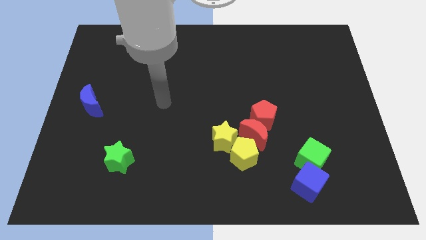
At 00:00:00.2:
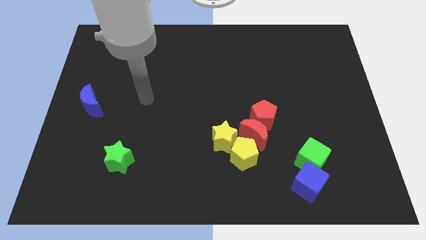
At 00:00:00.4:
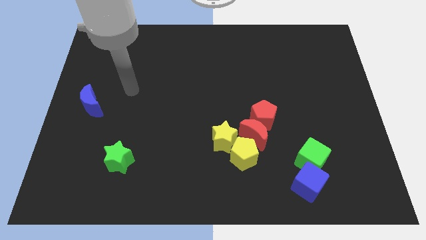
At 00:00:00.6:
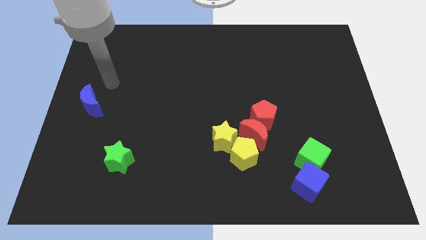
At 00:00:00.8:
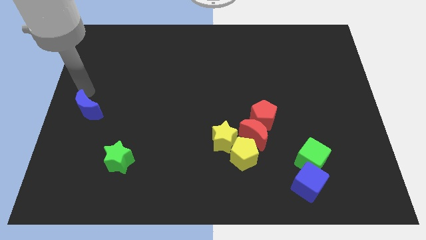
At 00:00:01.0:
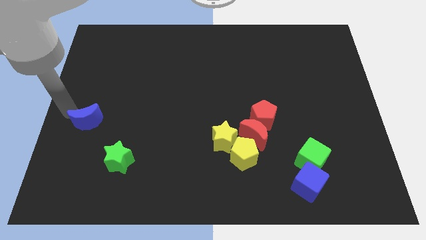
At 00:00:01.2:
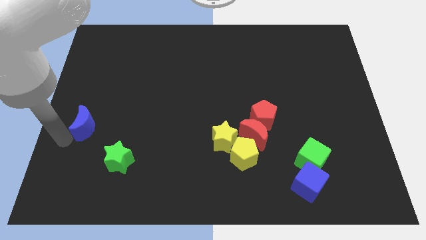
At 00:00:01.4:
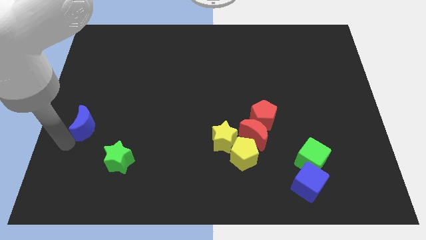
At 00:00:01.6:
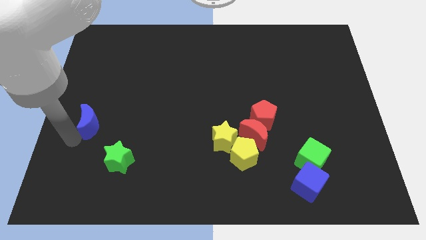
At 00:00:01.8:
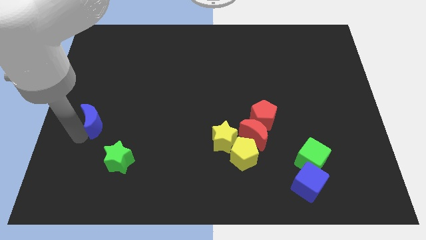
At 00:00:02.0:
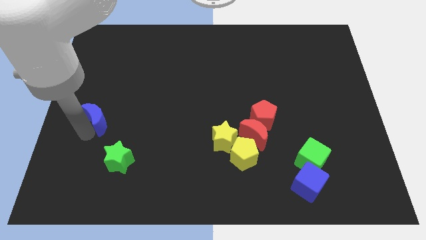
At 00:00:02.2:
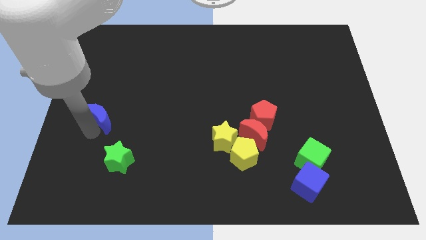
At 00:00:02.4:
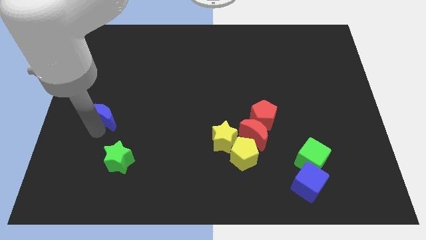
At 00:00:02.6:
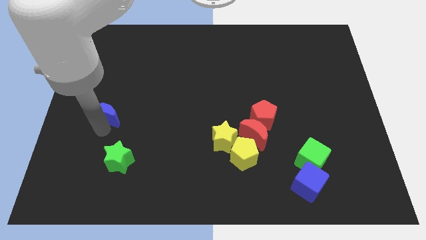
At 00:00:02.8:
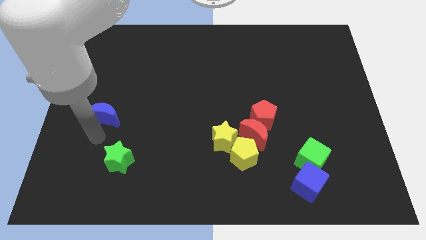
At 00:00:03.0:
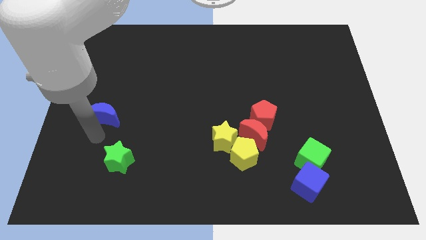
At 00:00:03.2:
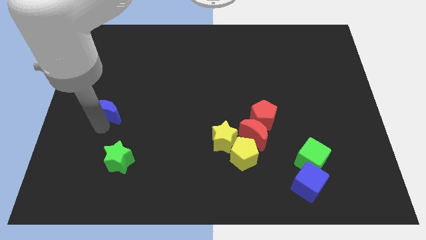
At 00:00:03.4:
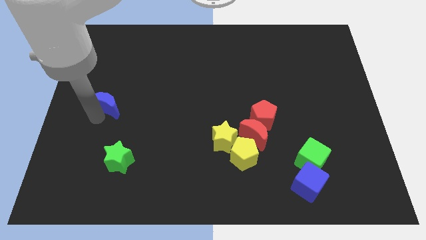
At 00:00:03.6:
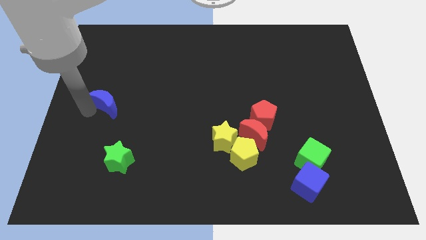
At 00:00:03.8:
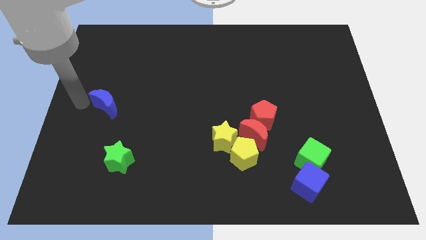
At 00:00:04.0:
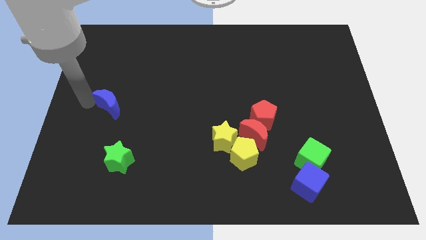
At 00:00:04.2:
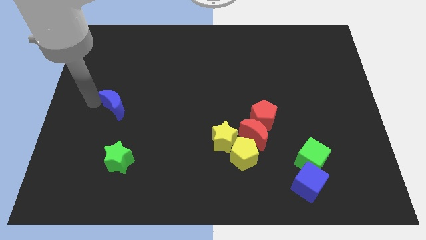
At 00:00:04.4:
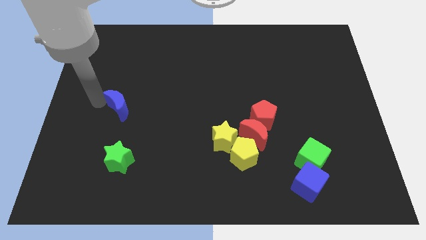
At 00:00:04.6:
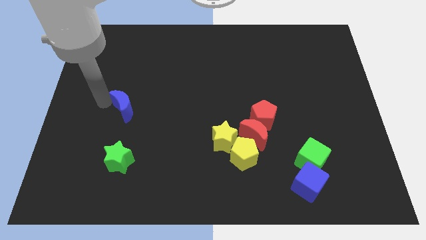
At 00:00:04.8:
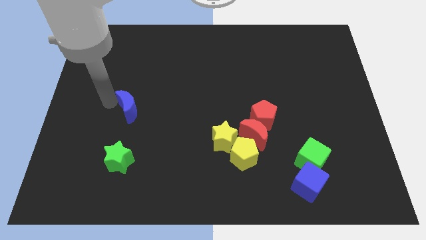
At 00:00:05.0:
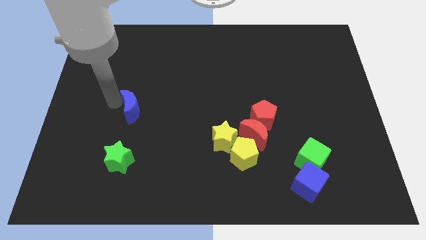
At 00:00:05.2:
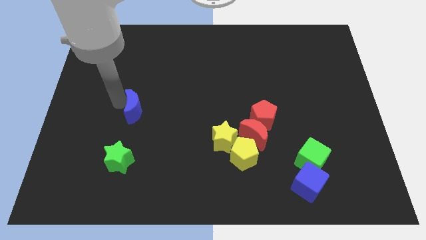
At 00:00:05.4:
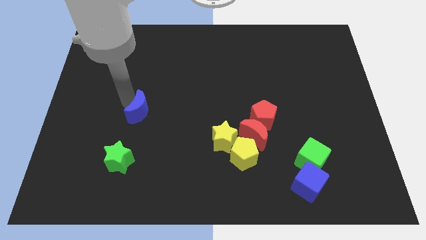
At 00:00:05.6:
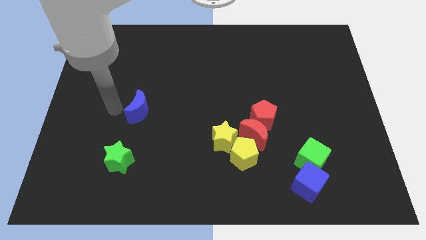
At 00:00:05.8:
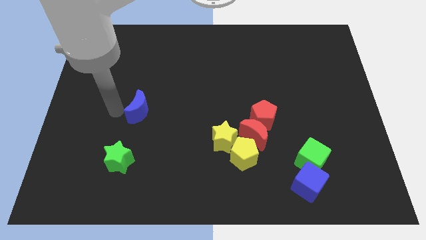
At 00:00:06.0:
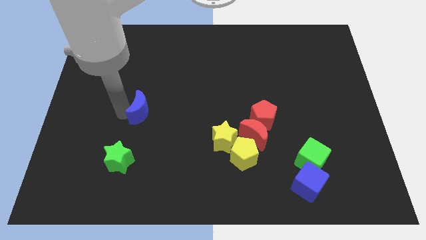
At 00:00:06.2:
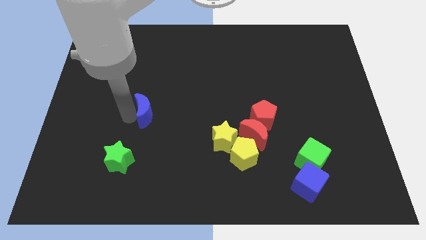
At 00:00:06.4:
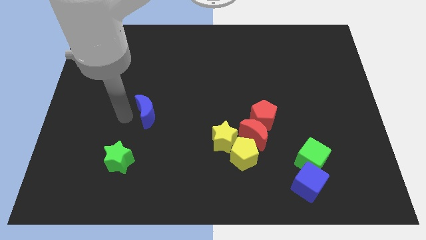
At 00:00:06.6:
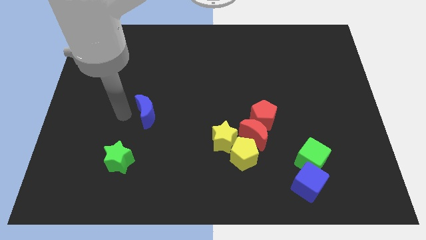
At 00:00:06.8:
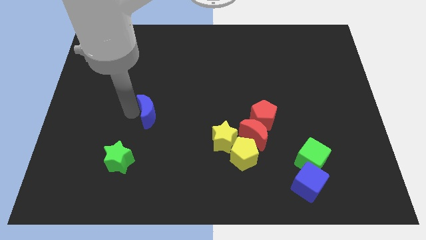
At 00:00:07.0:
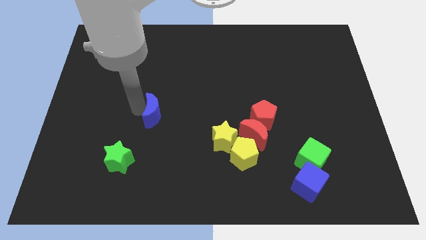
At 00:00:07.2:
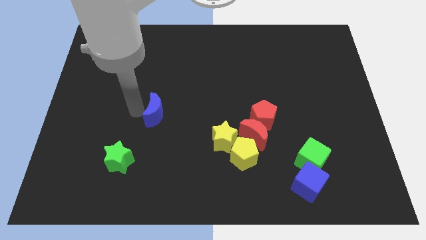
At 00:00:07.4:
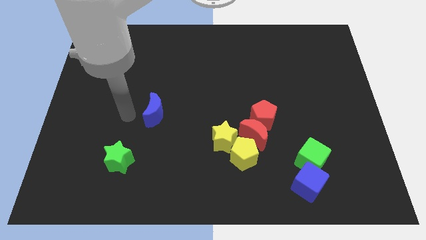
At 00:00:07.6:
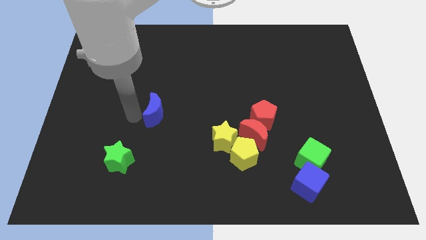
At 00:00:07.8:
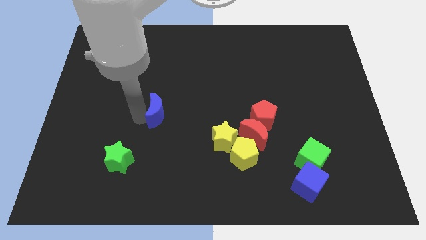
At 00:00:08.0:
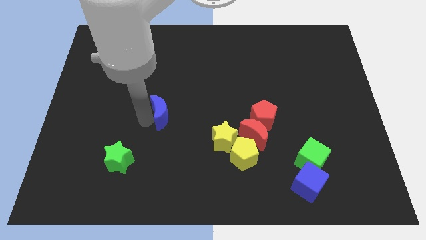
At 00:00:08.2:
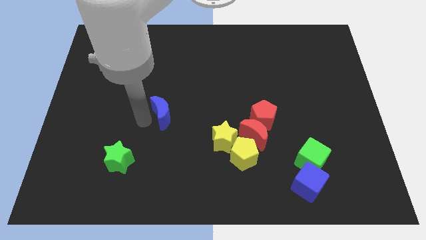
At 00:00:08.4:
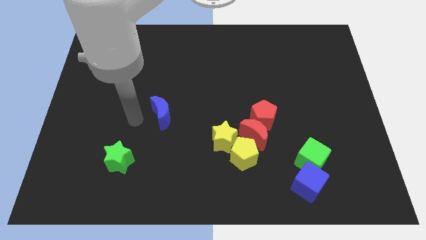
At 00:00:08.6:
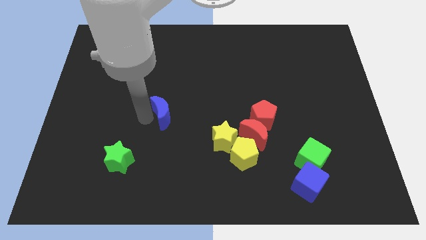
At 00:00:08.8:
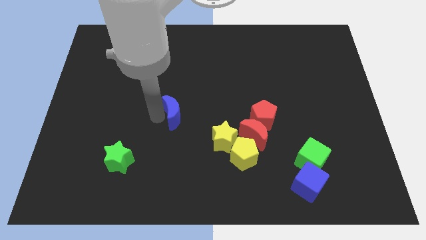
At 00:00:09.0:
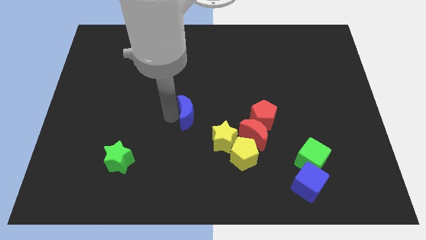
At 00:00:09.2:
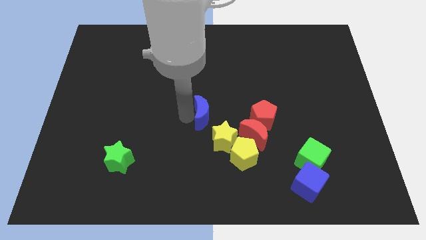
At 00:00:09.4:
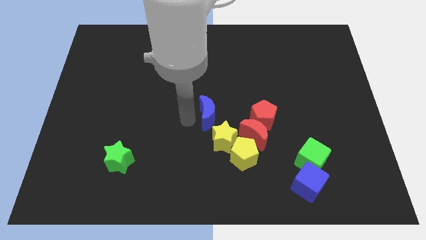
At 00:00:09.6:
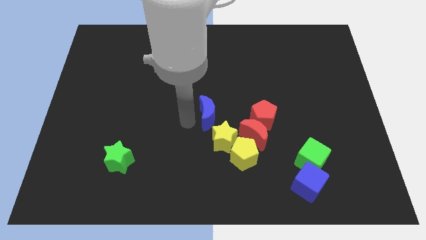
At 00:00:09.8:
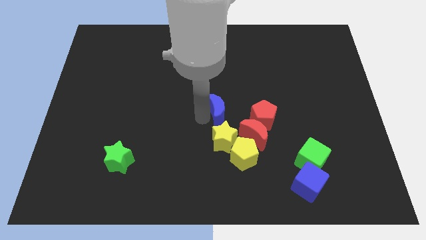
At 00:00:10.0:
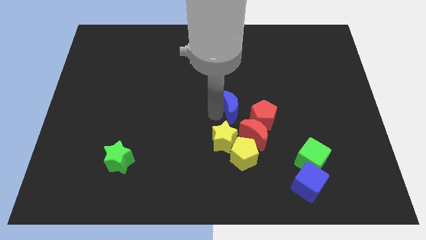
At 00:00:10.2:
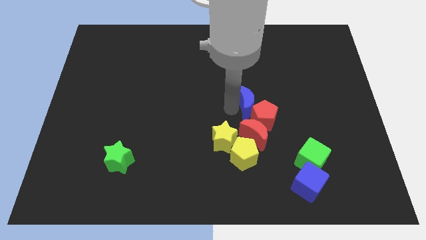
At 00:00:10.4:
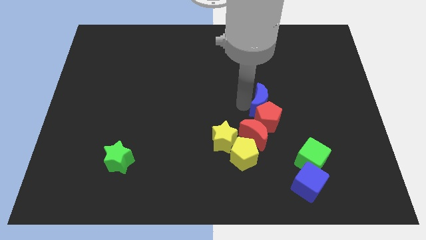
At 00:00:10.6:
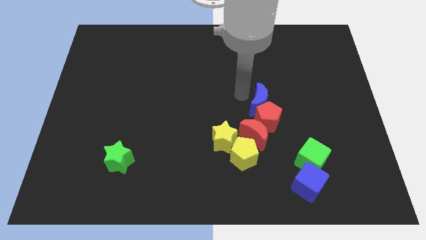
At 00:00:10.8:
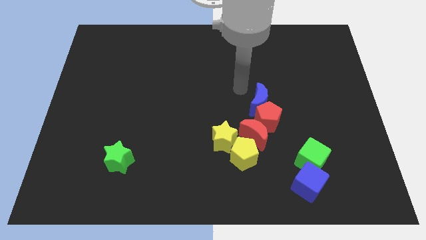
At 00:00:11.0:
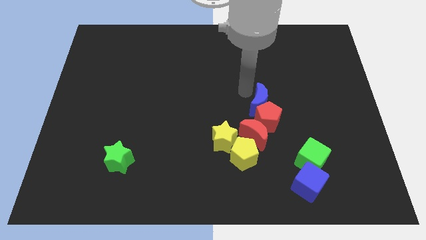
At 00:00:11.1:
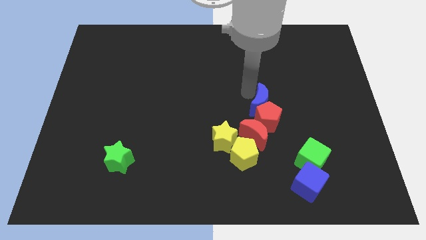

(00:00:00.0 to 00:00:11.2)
slide the blue moon diagonally up and to the right of the red moon

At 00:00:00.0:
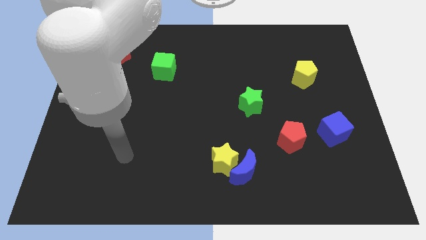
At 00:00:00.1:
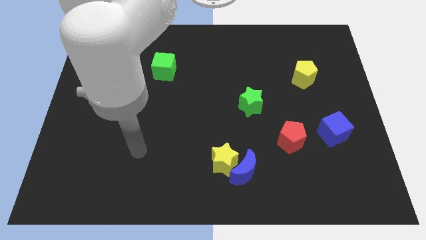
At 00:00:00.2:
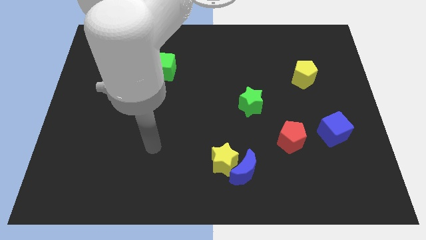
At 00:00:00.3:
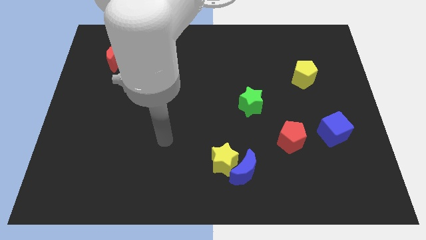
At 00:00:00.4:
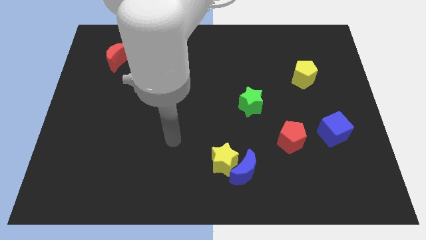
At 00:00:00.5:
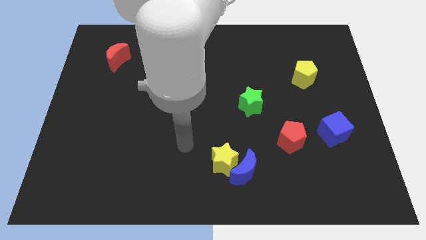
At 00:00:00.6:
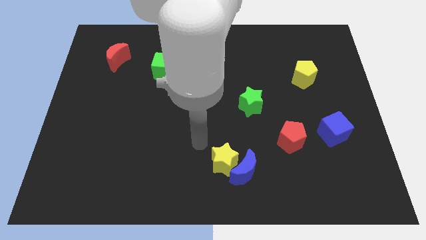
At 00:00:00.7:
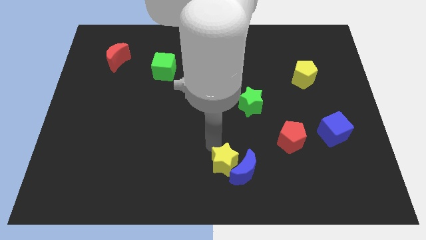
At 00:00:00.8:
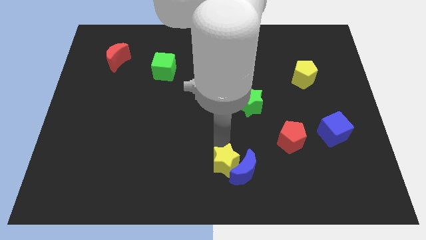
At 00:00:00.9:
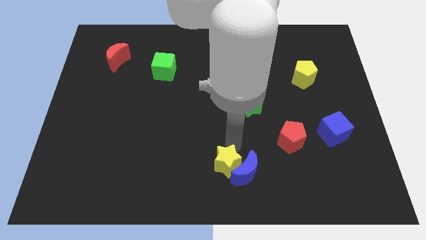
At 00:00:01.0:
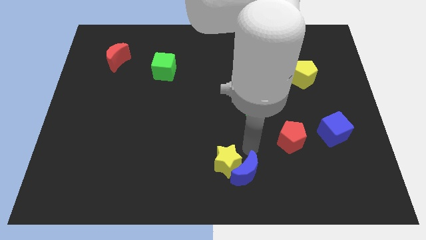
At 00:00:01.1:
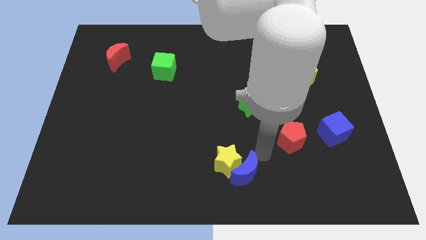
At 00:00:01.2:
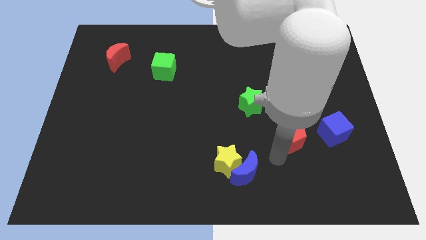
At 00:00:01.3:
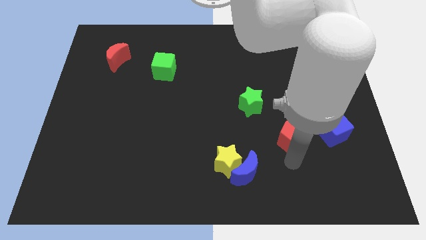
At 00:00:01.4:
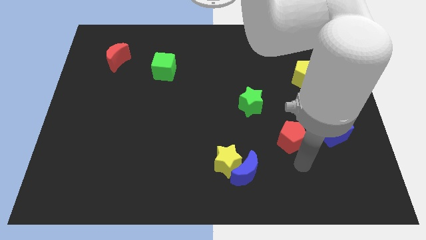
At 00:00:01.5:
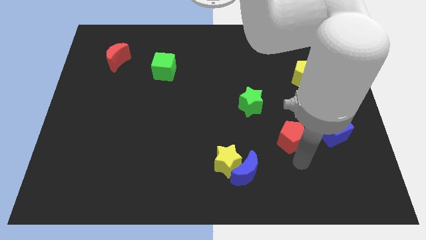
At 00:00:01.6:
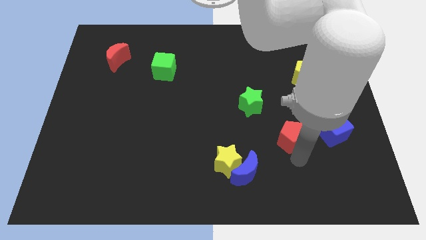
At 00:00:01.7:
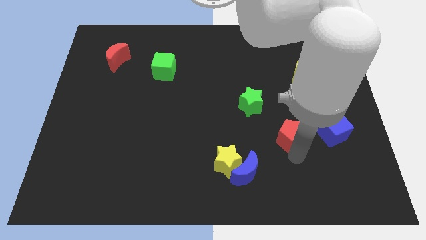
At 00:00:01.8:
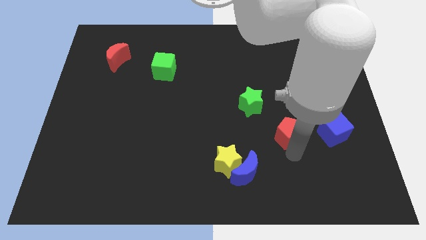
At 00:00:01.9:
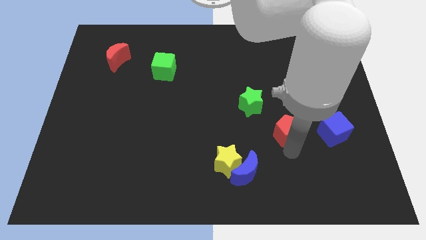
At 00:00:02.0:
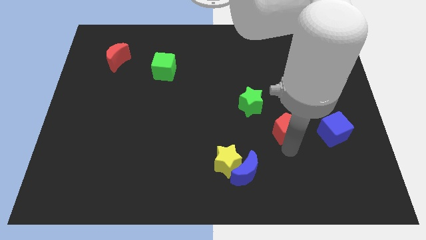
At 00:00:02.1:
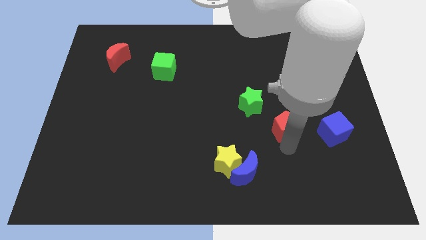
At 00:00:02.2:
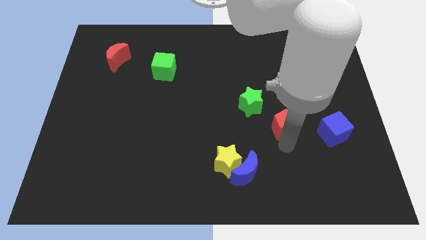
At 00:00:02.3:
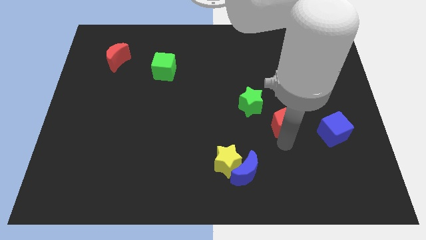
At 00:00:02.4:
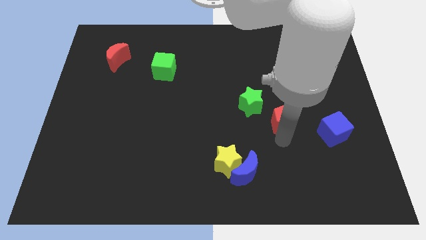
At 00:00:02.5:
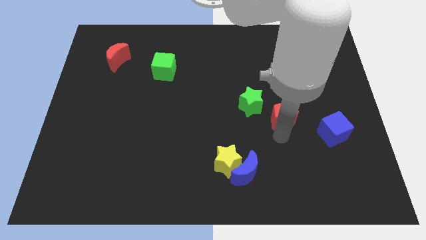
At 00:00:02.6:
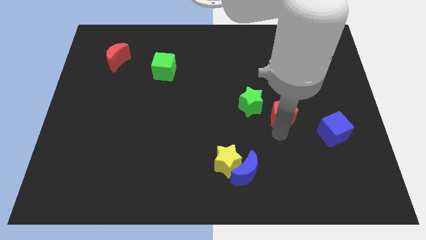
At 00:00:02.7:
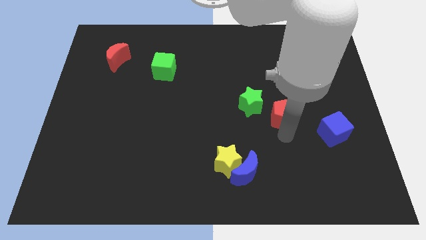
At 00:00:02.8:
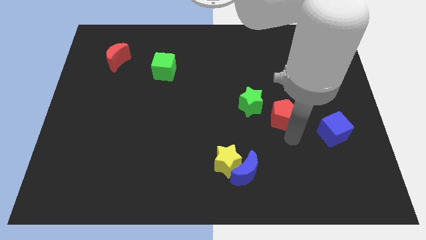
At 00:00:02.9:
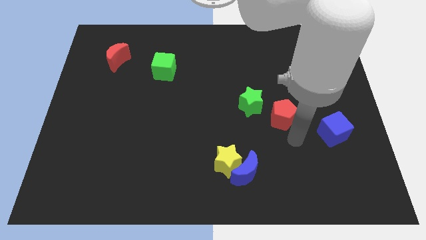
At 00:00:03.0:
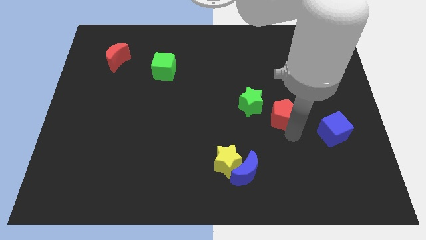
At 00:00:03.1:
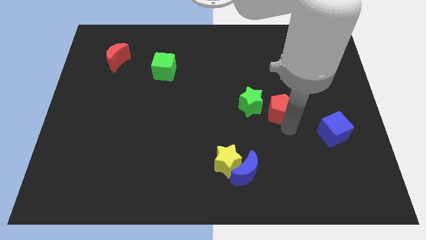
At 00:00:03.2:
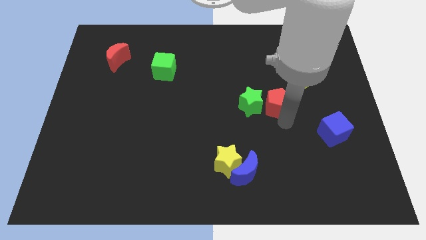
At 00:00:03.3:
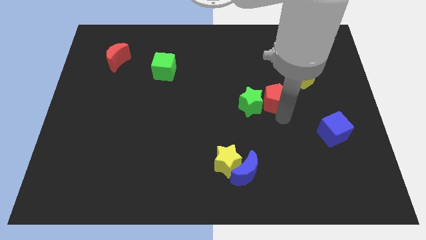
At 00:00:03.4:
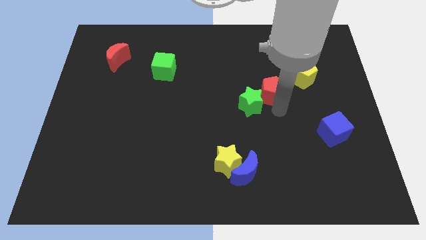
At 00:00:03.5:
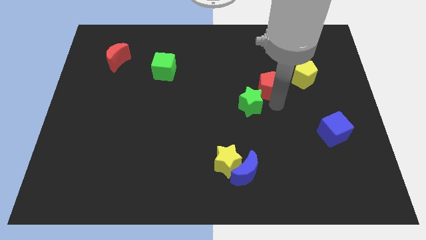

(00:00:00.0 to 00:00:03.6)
push the red pentagon to the left side of the yellow pentagon
